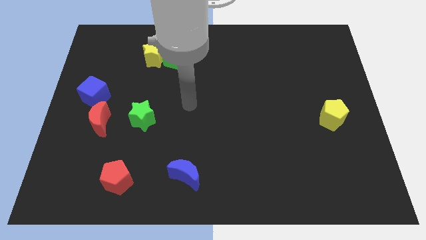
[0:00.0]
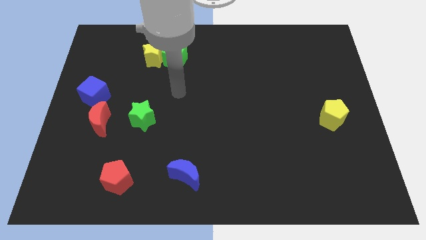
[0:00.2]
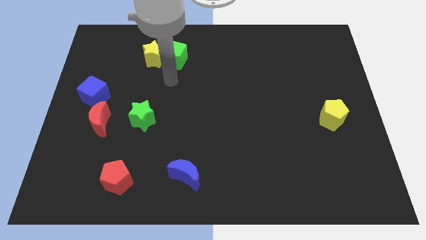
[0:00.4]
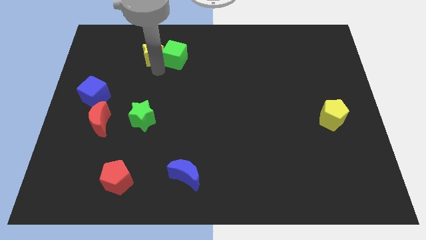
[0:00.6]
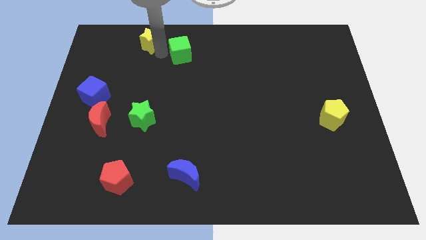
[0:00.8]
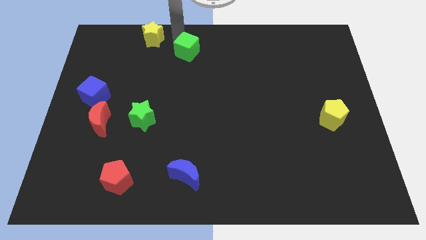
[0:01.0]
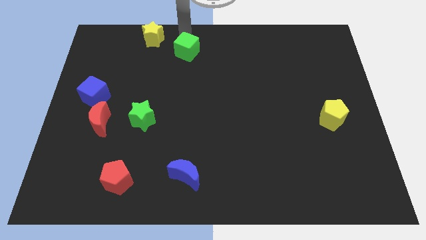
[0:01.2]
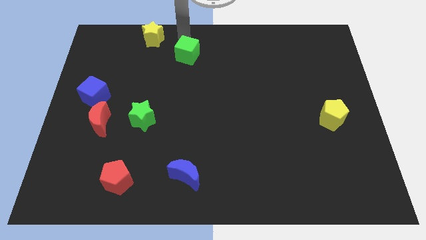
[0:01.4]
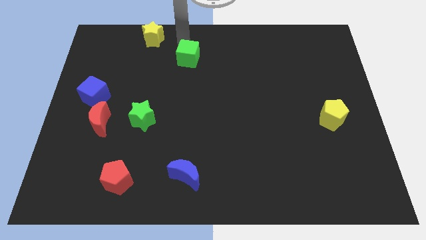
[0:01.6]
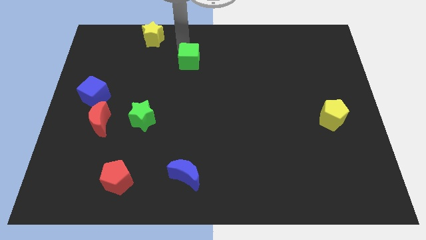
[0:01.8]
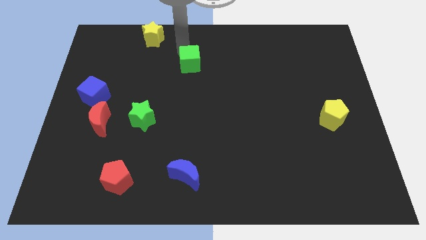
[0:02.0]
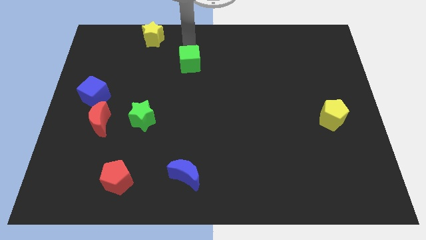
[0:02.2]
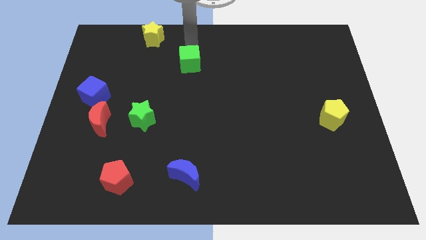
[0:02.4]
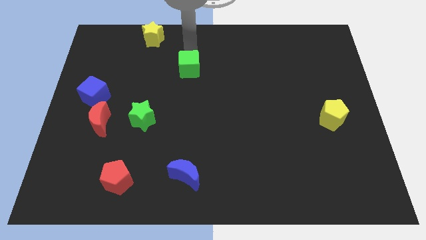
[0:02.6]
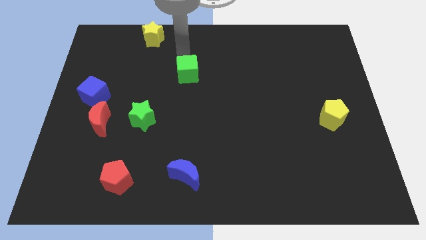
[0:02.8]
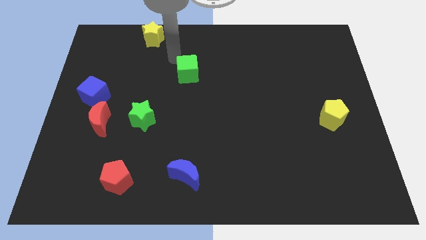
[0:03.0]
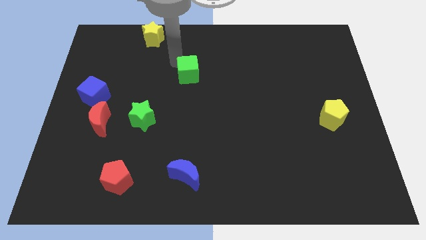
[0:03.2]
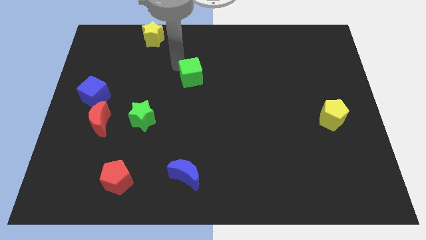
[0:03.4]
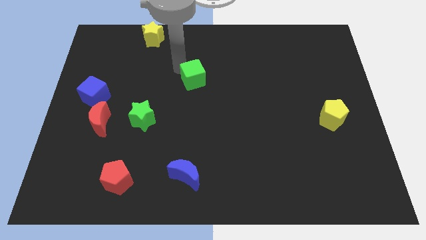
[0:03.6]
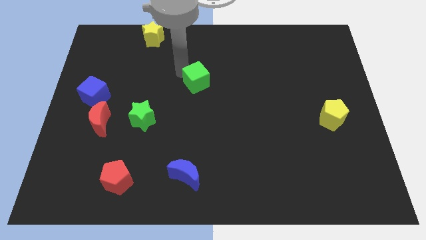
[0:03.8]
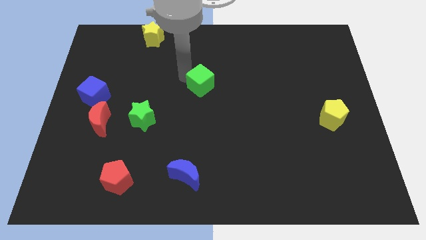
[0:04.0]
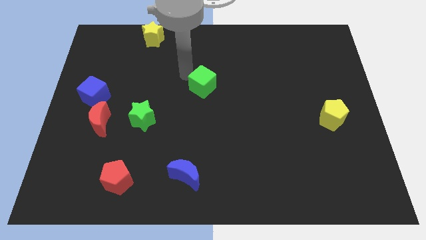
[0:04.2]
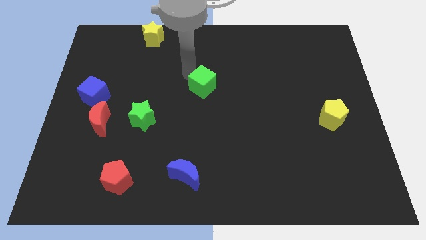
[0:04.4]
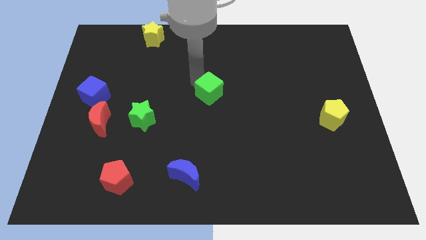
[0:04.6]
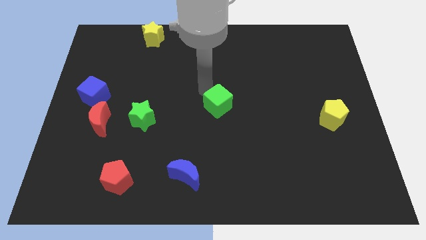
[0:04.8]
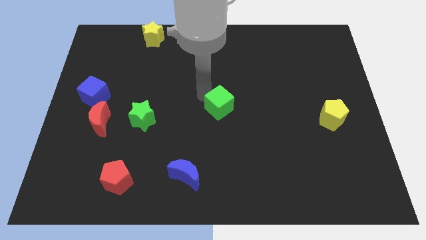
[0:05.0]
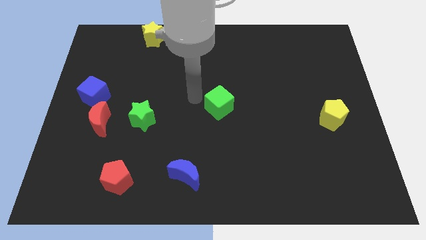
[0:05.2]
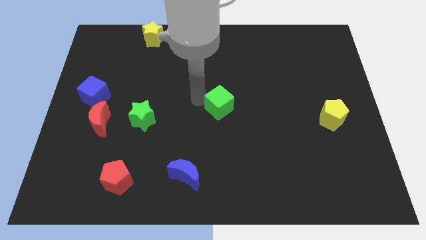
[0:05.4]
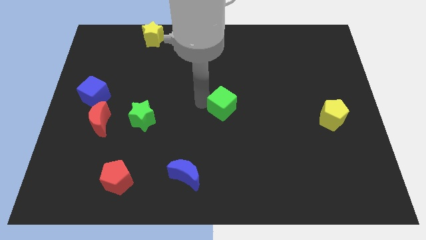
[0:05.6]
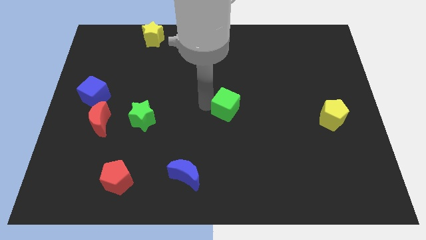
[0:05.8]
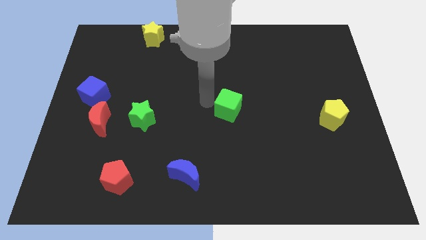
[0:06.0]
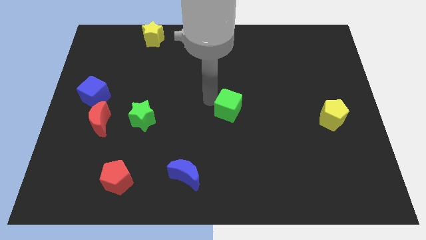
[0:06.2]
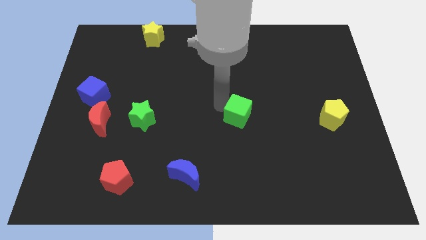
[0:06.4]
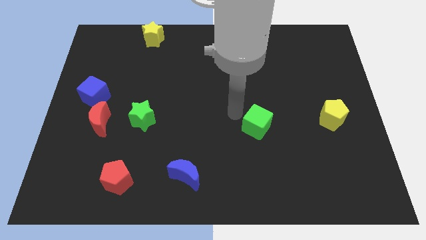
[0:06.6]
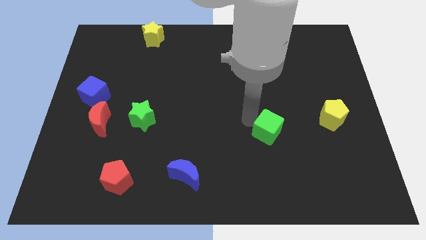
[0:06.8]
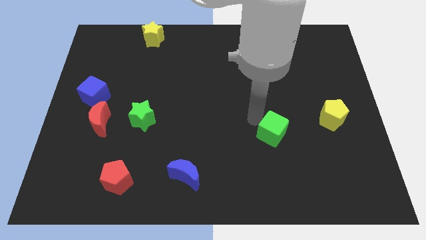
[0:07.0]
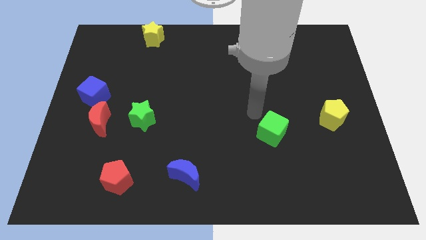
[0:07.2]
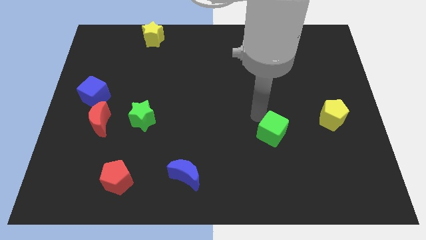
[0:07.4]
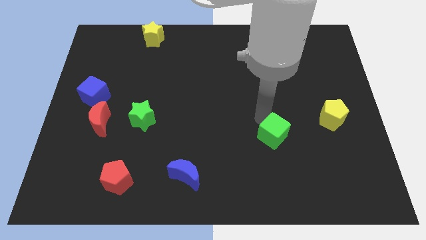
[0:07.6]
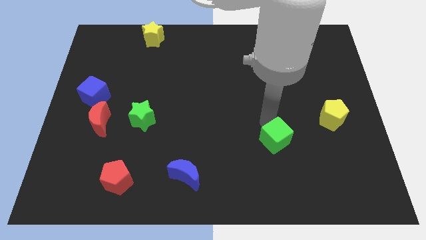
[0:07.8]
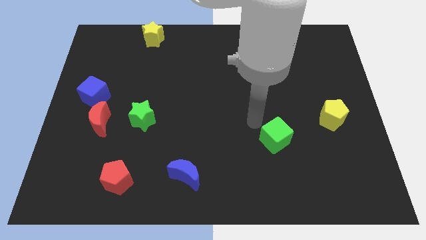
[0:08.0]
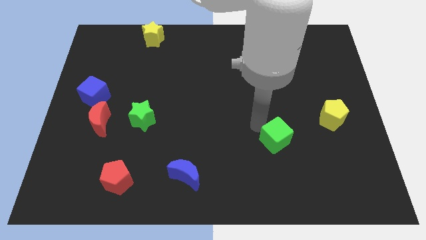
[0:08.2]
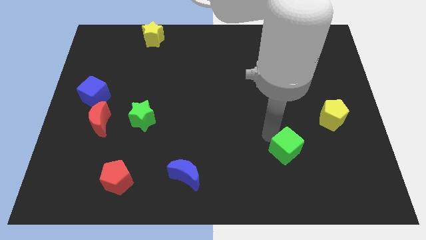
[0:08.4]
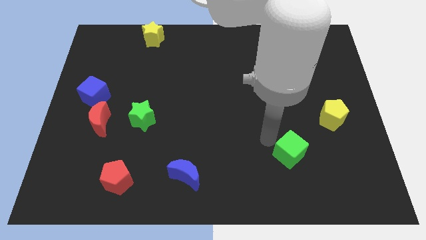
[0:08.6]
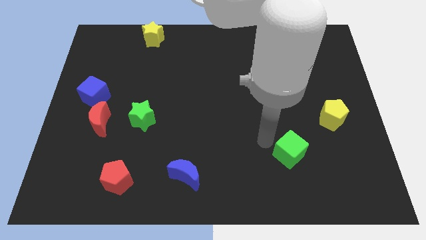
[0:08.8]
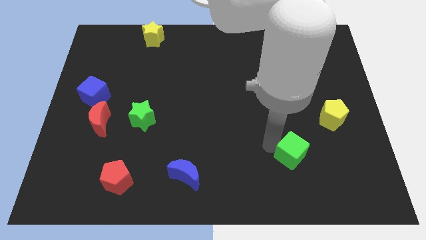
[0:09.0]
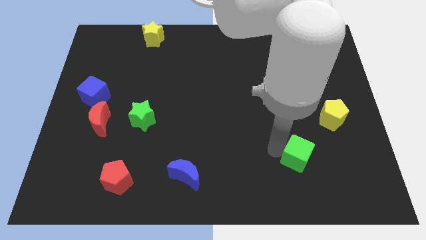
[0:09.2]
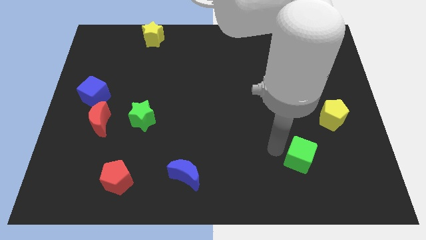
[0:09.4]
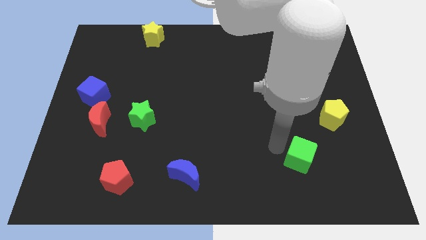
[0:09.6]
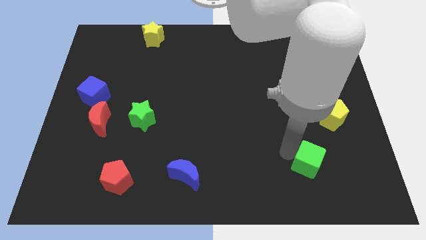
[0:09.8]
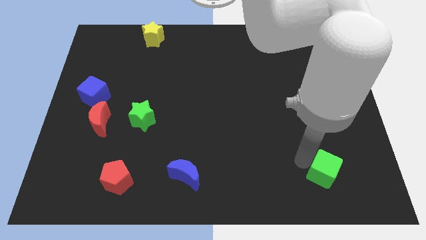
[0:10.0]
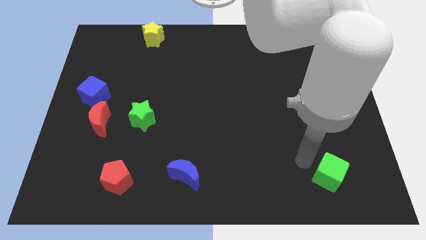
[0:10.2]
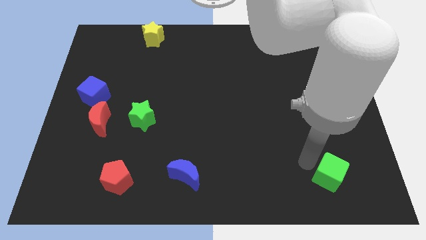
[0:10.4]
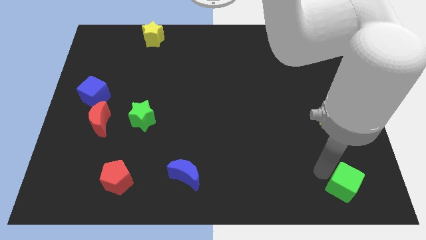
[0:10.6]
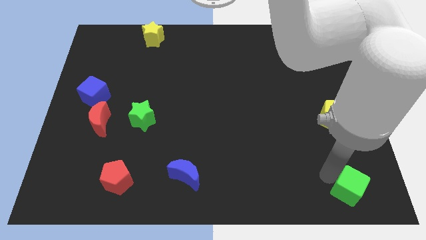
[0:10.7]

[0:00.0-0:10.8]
push the green cube to the bottom right
